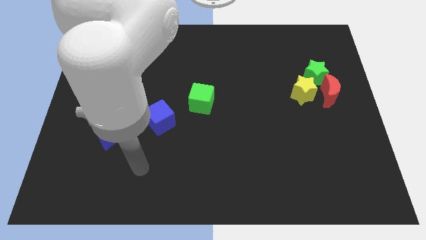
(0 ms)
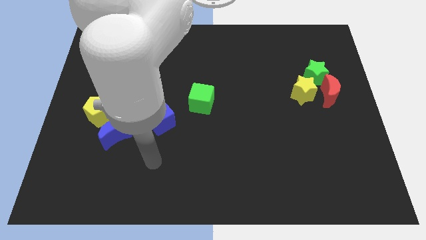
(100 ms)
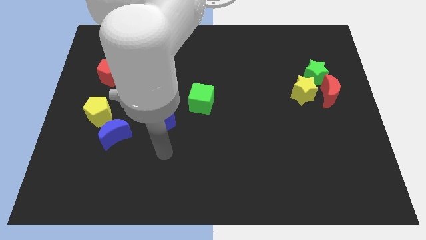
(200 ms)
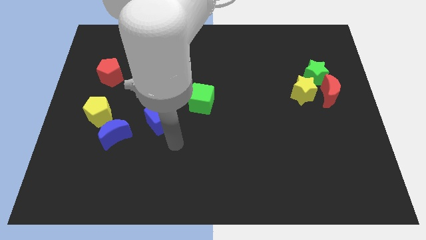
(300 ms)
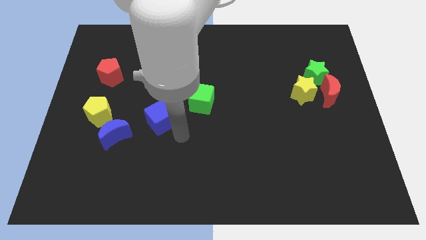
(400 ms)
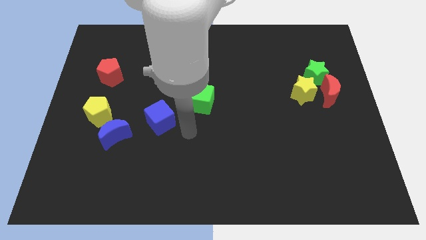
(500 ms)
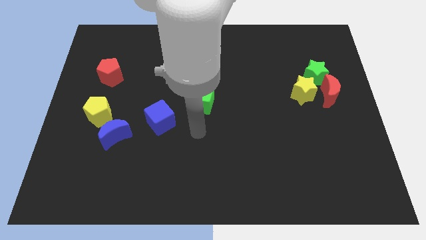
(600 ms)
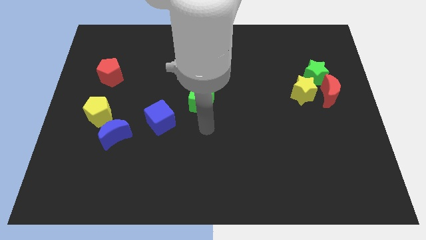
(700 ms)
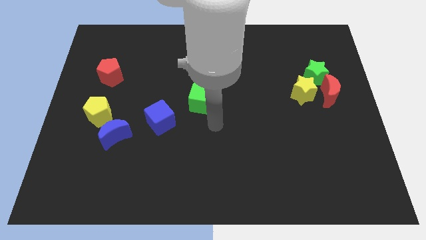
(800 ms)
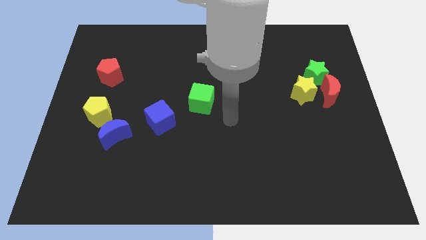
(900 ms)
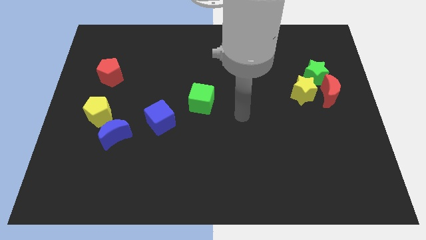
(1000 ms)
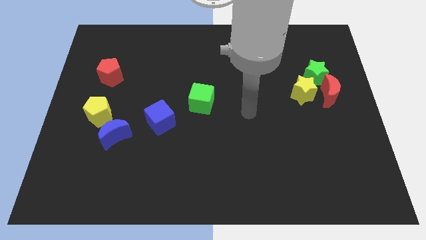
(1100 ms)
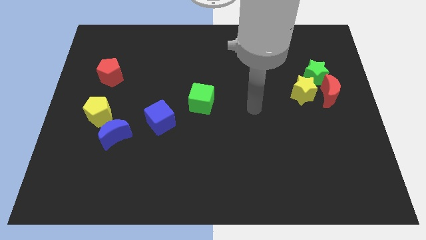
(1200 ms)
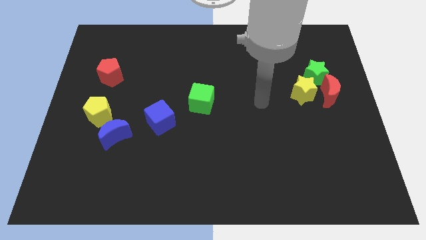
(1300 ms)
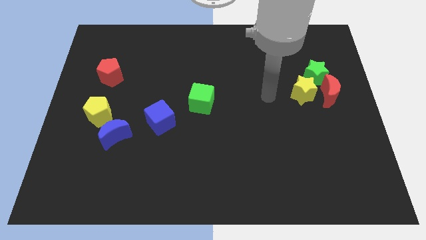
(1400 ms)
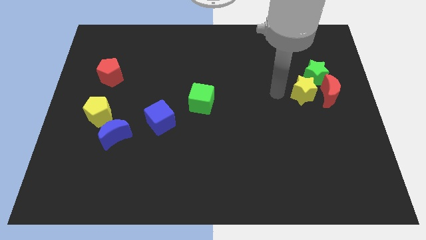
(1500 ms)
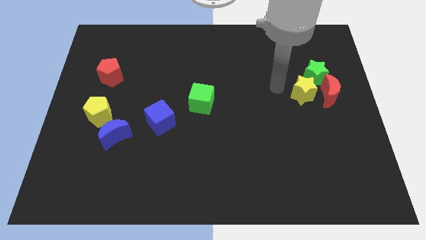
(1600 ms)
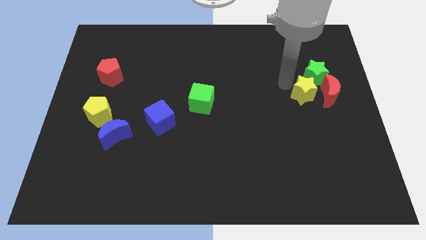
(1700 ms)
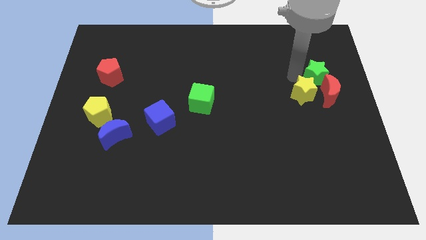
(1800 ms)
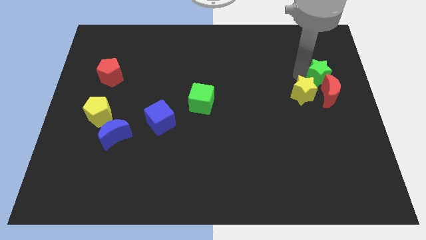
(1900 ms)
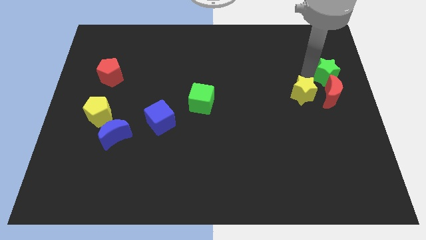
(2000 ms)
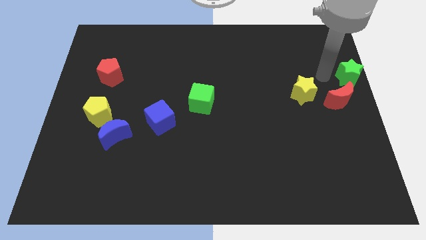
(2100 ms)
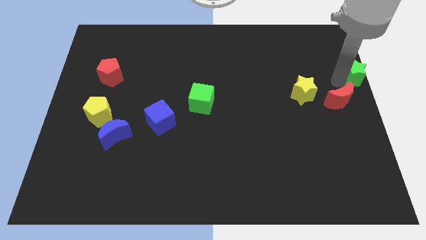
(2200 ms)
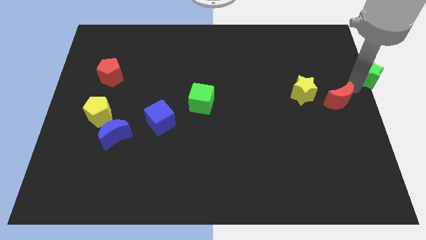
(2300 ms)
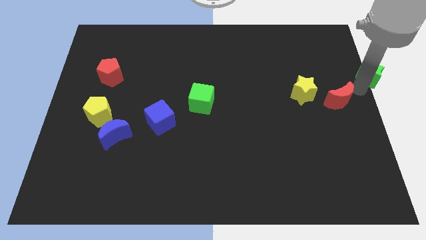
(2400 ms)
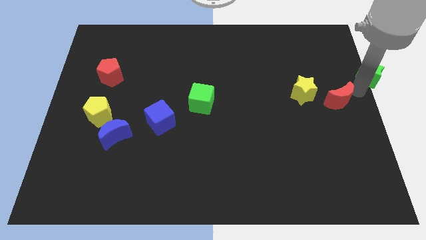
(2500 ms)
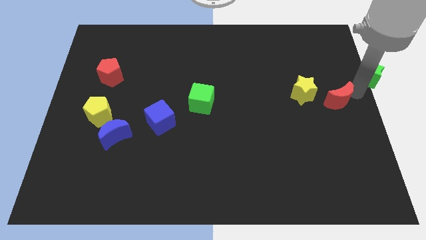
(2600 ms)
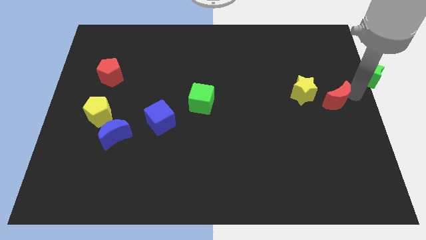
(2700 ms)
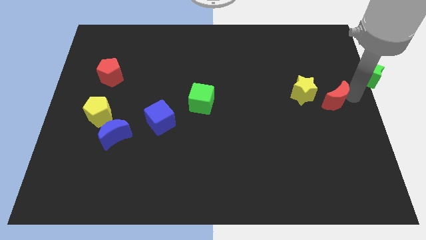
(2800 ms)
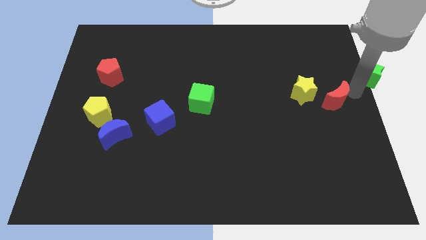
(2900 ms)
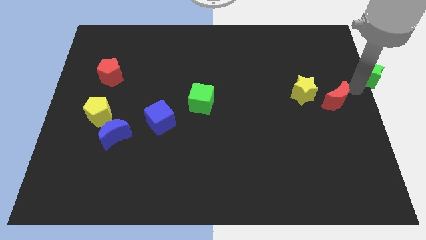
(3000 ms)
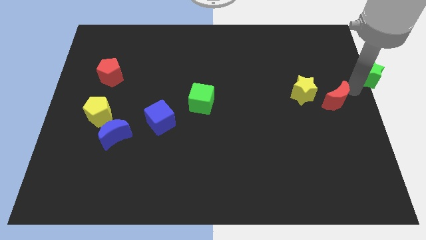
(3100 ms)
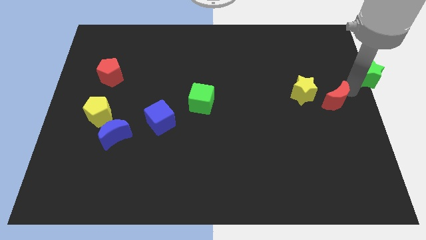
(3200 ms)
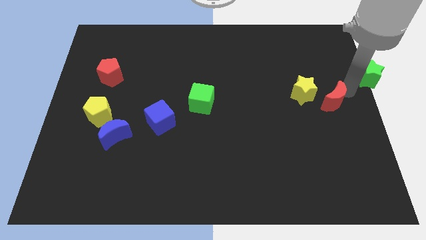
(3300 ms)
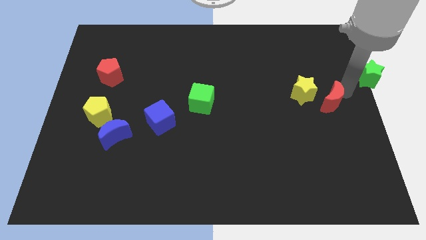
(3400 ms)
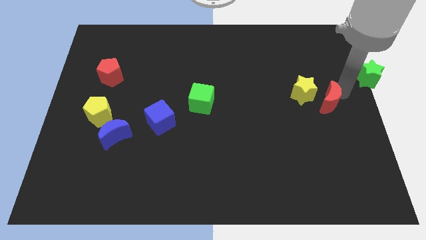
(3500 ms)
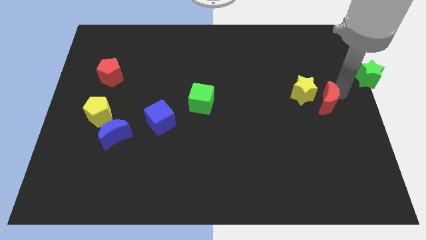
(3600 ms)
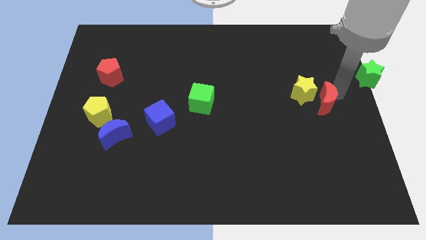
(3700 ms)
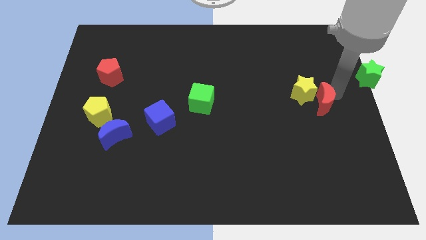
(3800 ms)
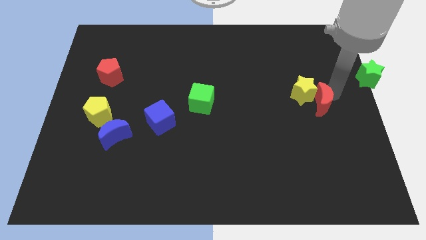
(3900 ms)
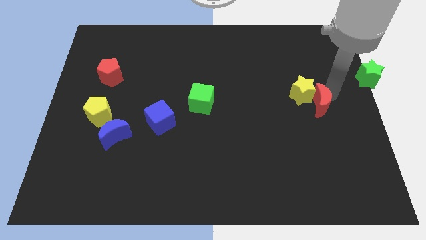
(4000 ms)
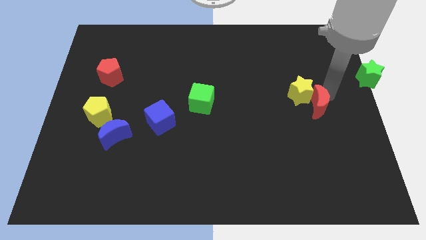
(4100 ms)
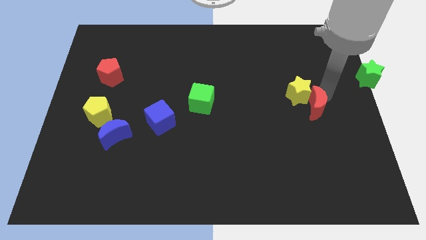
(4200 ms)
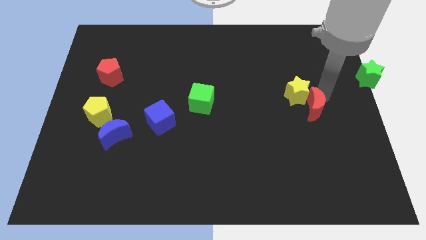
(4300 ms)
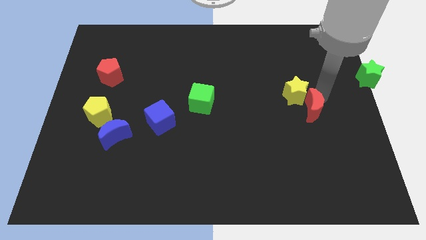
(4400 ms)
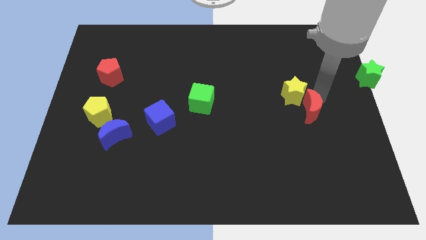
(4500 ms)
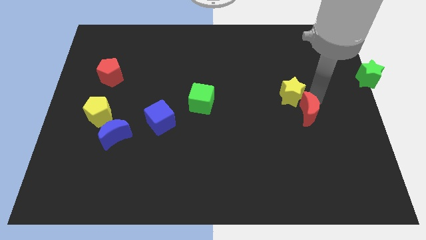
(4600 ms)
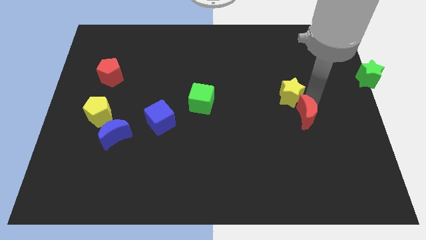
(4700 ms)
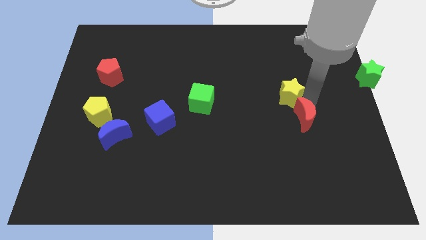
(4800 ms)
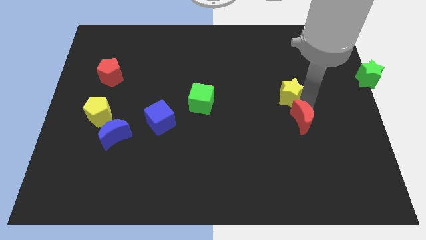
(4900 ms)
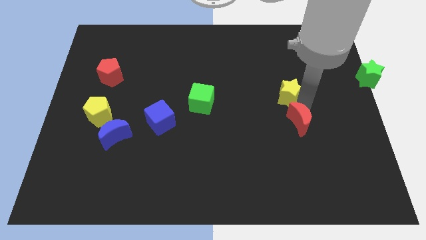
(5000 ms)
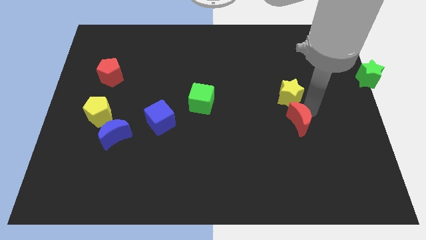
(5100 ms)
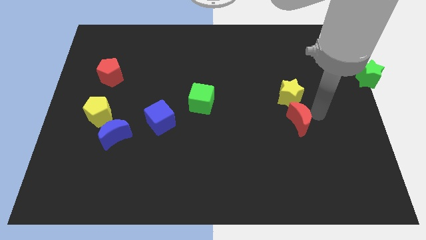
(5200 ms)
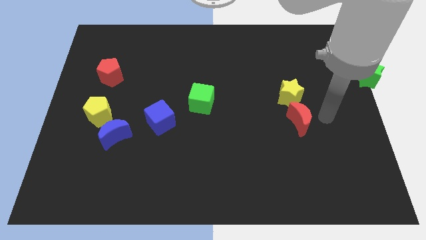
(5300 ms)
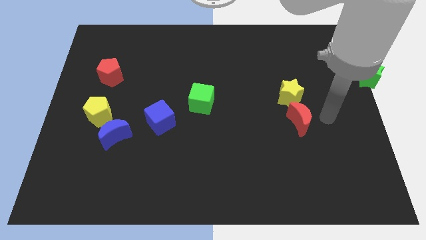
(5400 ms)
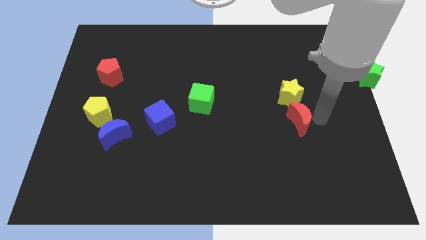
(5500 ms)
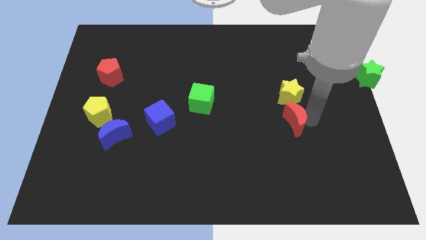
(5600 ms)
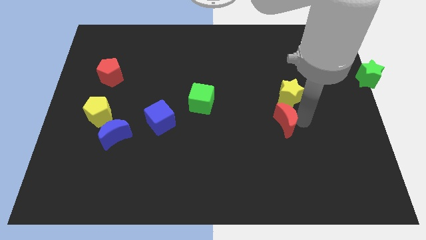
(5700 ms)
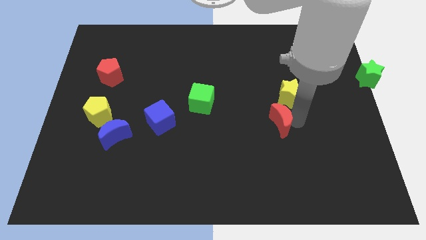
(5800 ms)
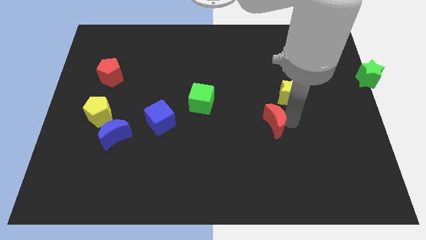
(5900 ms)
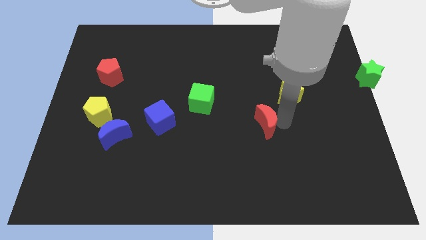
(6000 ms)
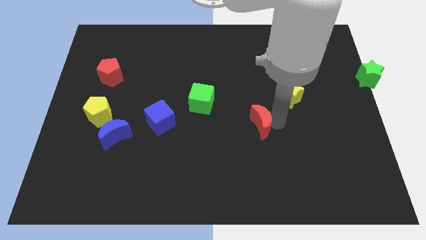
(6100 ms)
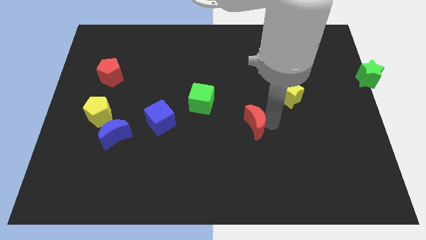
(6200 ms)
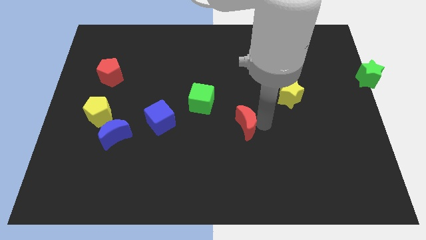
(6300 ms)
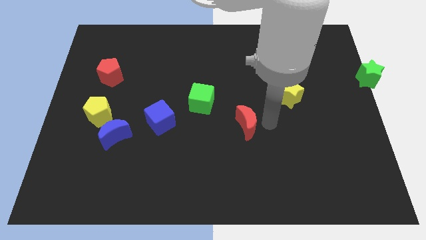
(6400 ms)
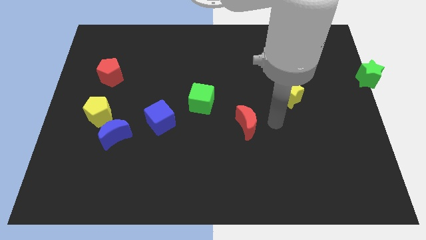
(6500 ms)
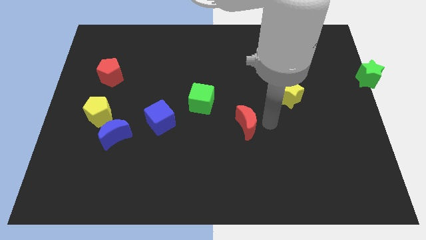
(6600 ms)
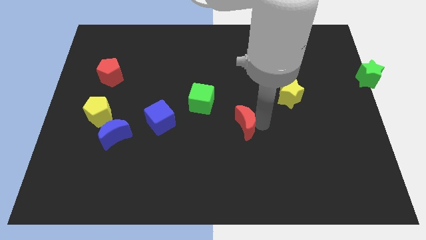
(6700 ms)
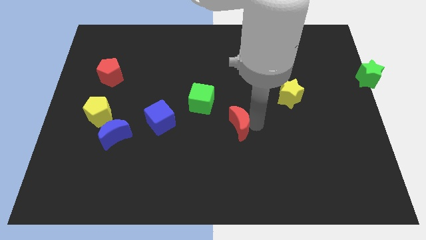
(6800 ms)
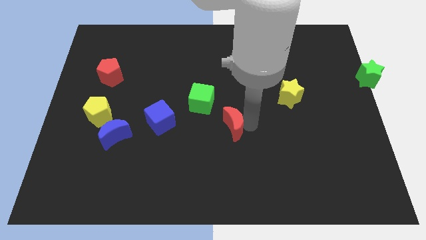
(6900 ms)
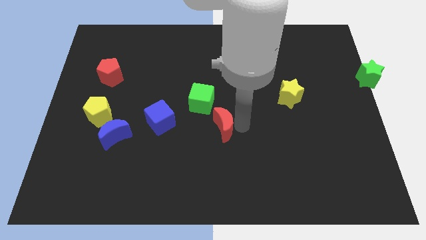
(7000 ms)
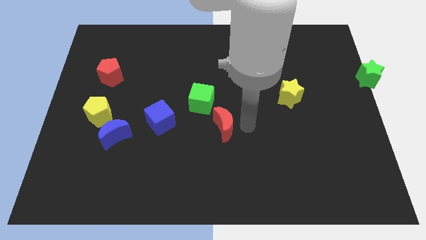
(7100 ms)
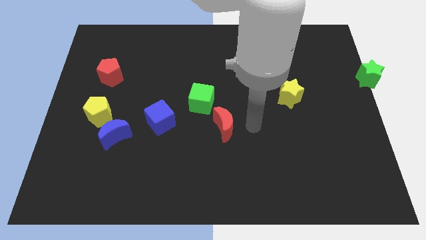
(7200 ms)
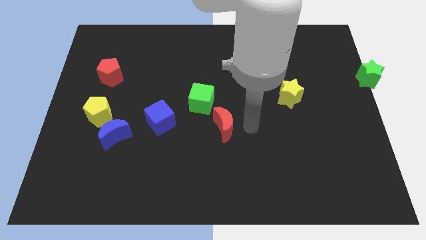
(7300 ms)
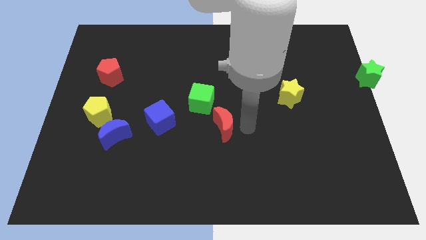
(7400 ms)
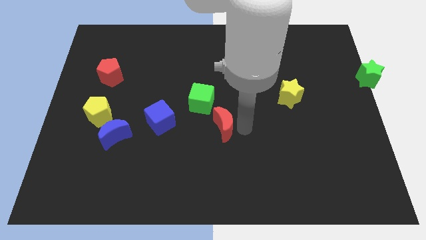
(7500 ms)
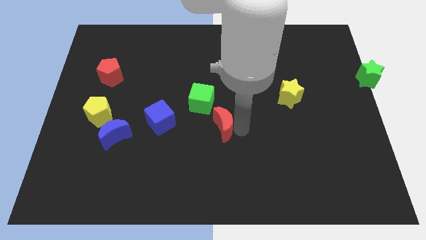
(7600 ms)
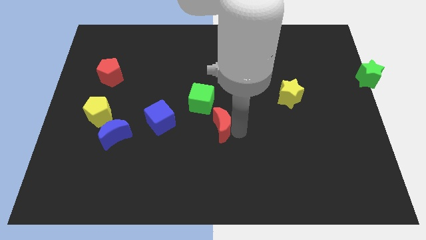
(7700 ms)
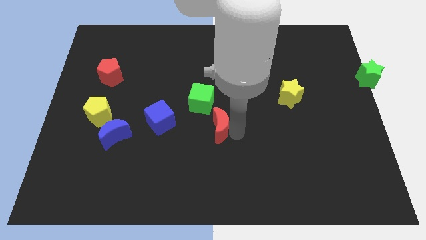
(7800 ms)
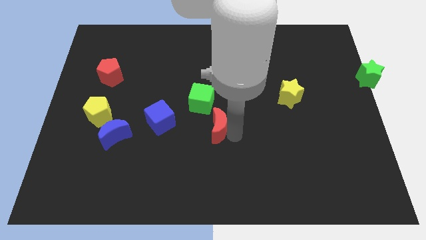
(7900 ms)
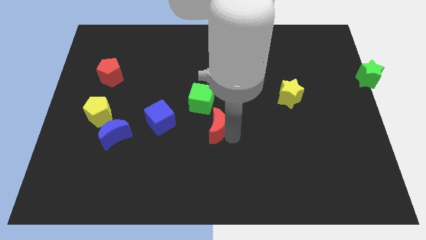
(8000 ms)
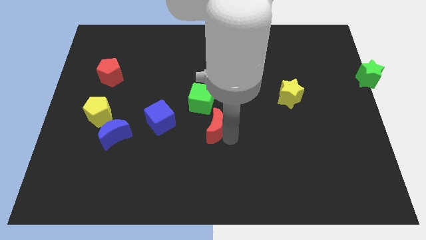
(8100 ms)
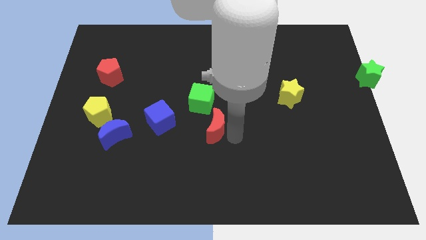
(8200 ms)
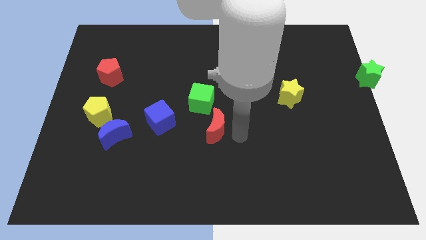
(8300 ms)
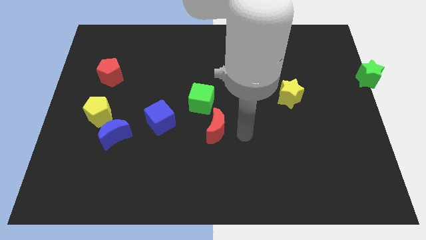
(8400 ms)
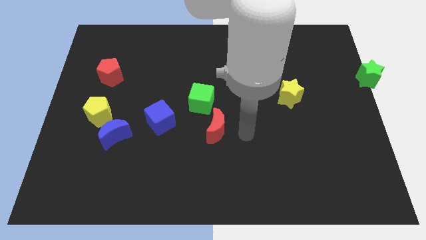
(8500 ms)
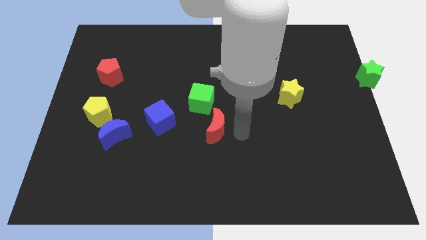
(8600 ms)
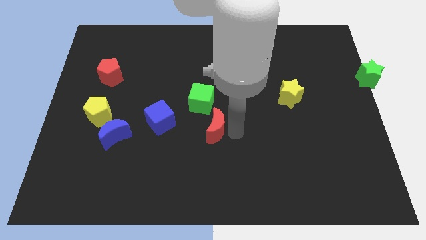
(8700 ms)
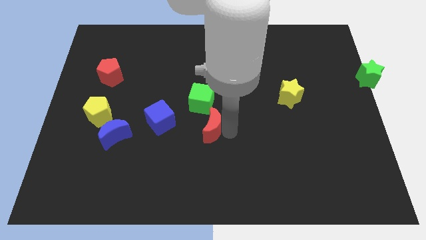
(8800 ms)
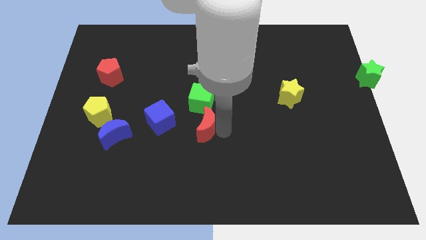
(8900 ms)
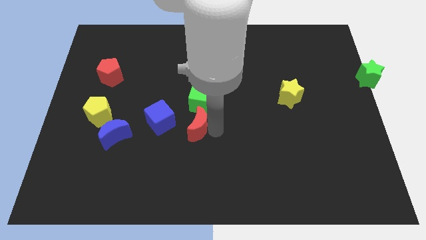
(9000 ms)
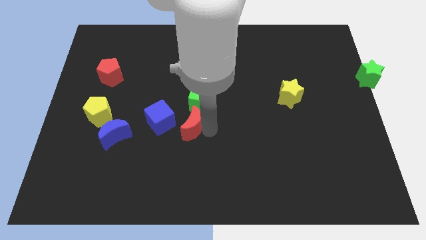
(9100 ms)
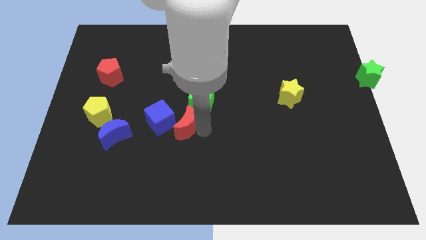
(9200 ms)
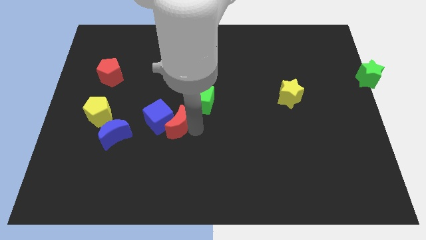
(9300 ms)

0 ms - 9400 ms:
move the red moon to the blue cube
